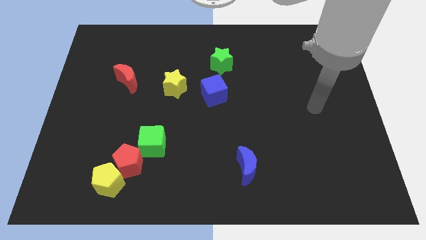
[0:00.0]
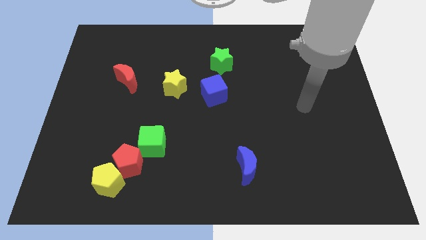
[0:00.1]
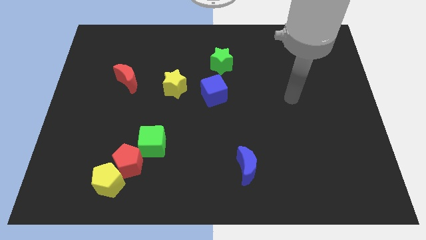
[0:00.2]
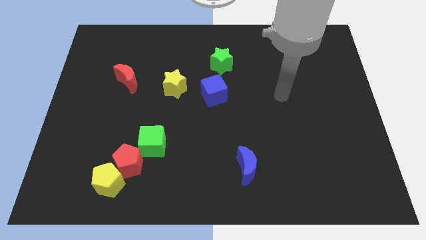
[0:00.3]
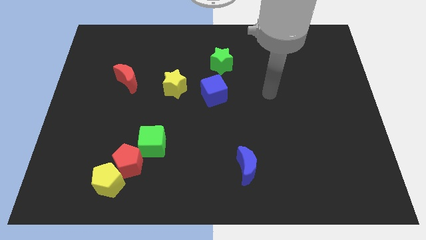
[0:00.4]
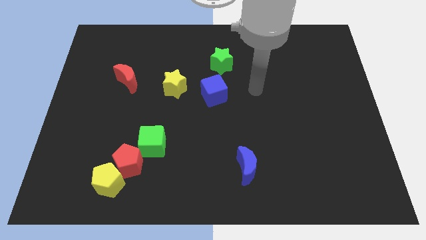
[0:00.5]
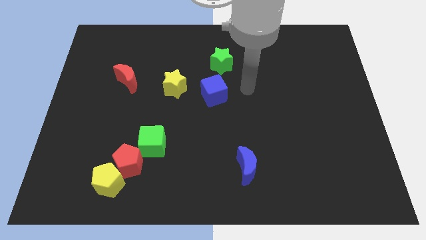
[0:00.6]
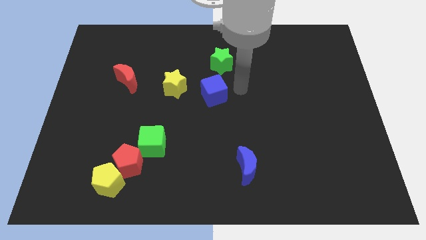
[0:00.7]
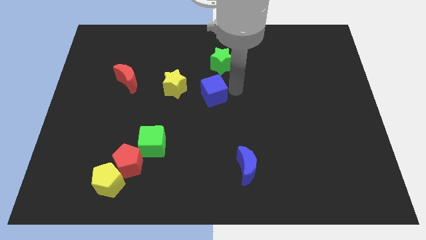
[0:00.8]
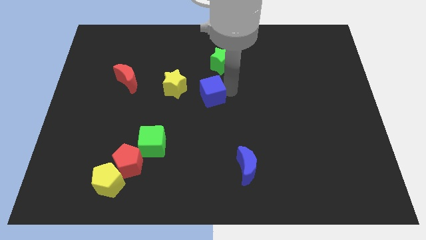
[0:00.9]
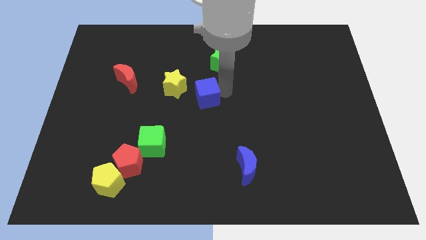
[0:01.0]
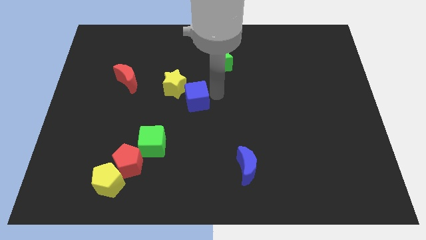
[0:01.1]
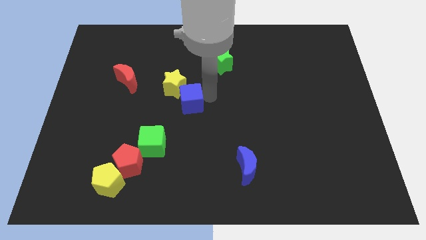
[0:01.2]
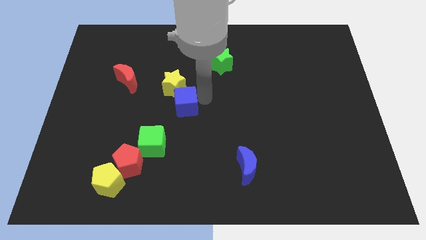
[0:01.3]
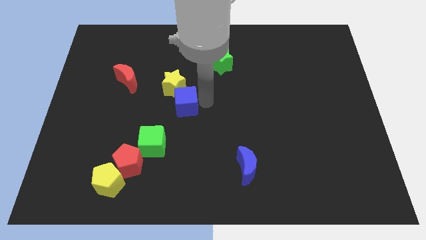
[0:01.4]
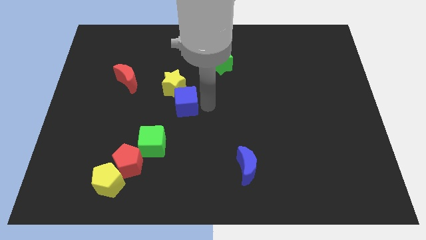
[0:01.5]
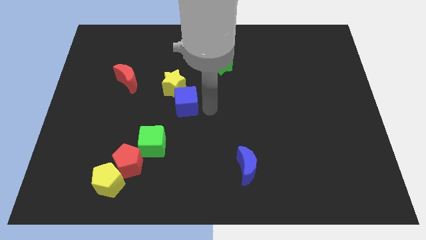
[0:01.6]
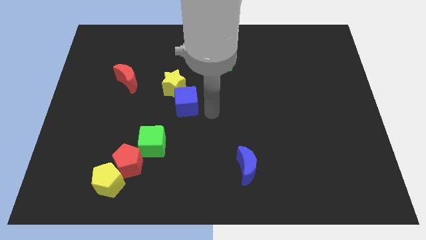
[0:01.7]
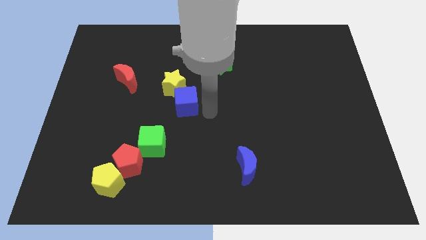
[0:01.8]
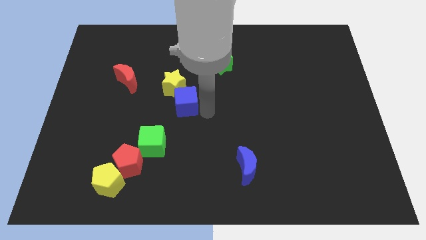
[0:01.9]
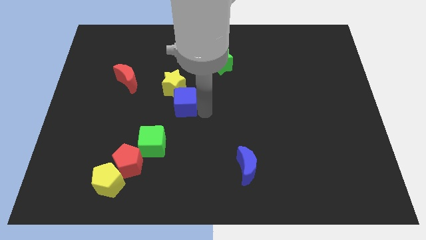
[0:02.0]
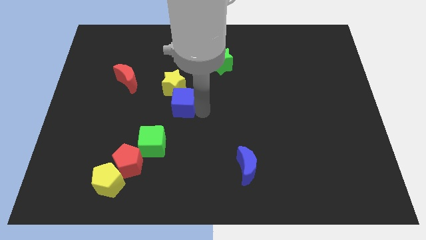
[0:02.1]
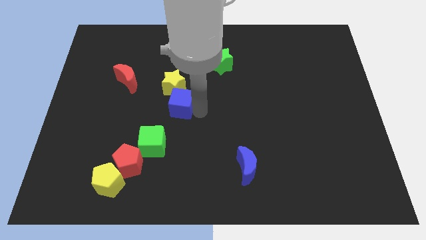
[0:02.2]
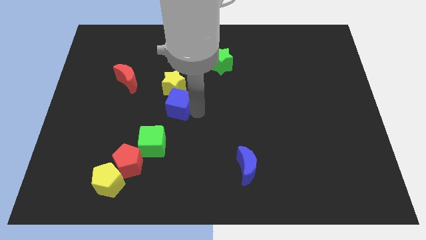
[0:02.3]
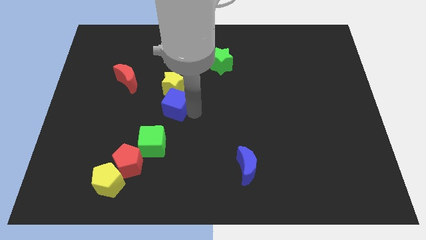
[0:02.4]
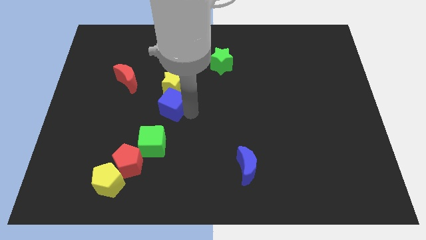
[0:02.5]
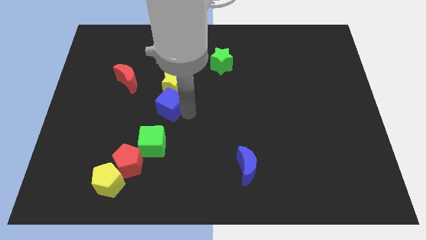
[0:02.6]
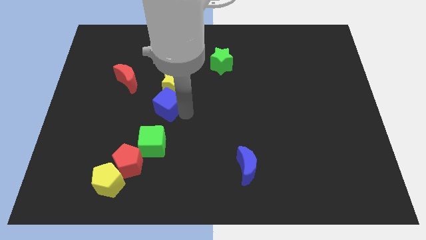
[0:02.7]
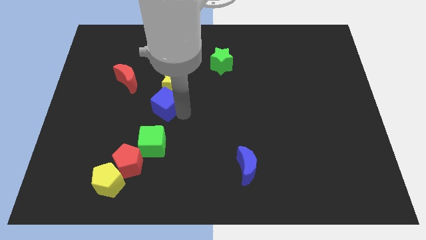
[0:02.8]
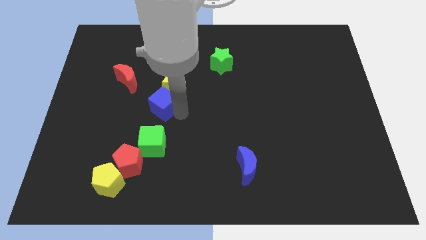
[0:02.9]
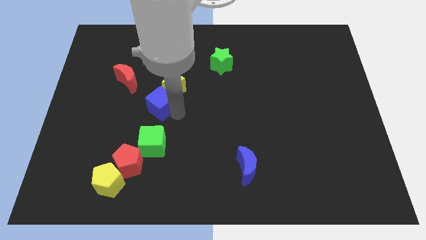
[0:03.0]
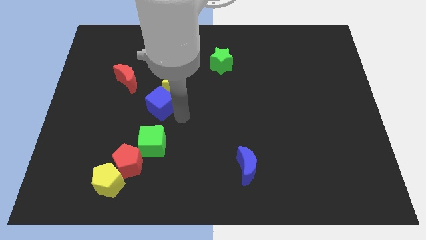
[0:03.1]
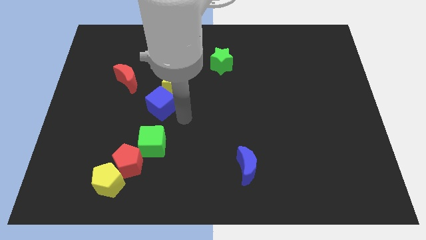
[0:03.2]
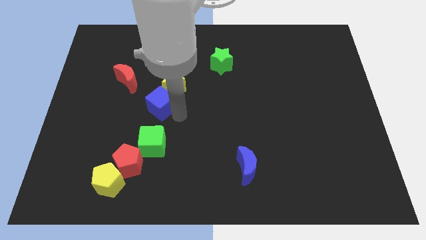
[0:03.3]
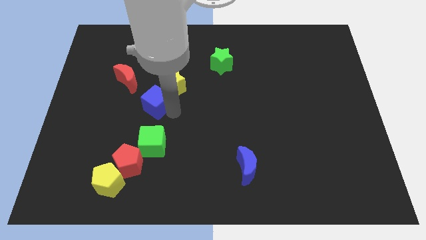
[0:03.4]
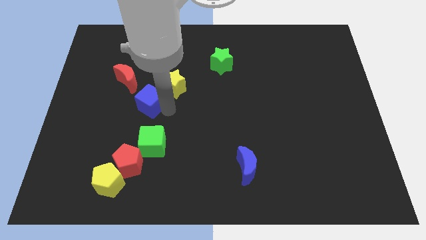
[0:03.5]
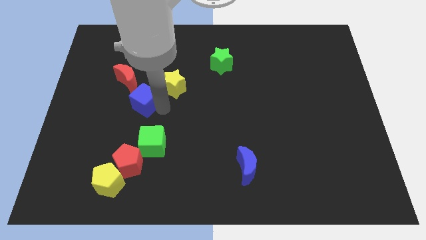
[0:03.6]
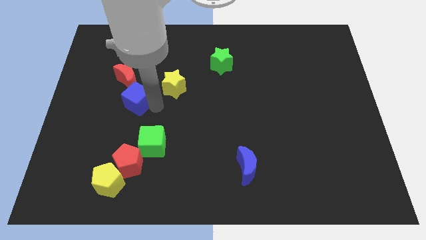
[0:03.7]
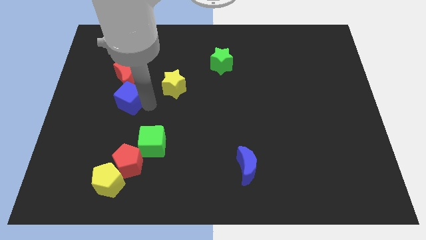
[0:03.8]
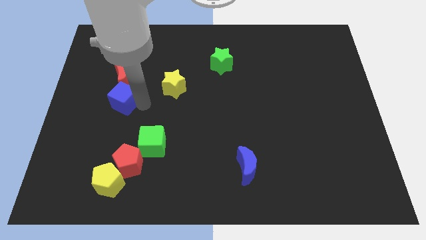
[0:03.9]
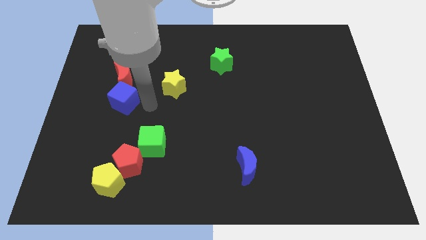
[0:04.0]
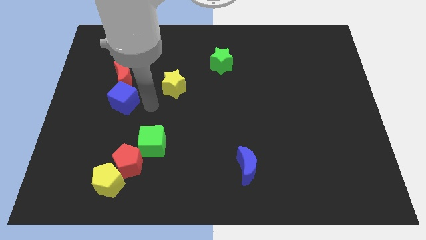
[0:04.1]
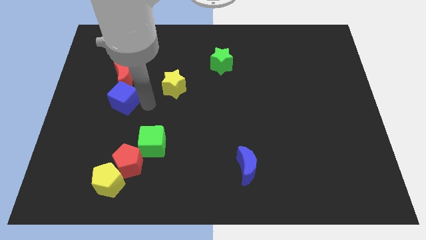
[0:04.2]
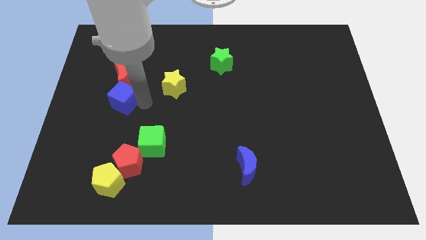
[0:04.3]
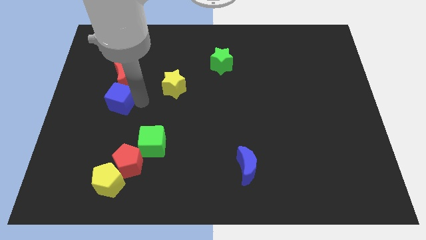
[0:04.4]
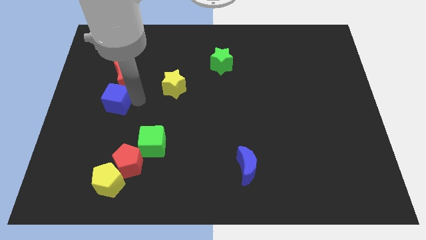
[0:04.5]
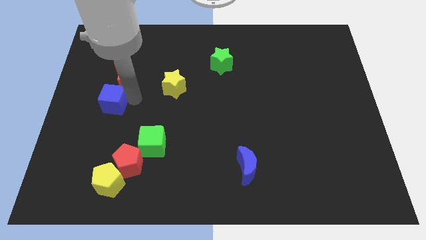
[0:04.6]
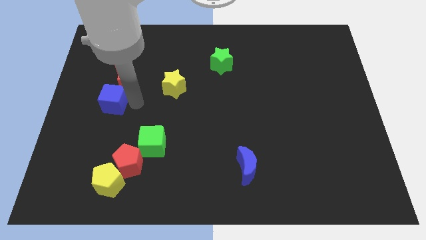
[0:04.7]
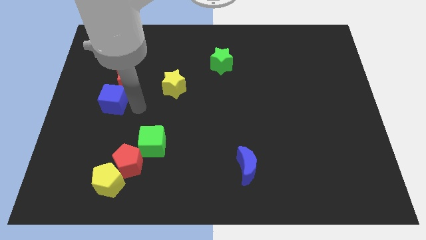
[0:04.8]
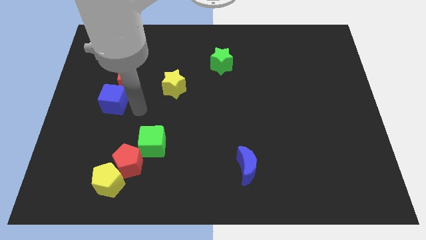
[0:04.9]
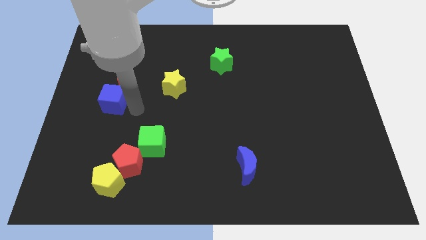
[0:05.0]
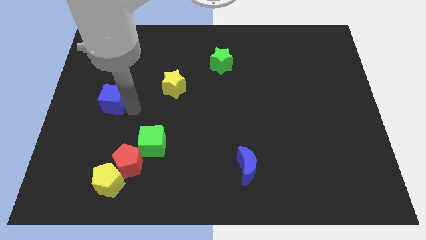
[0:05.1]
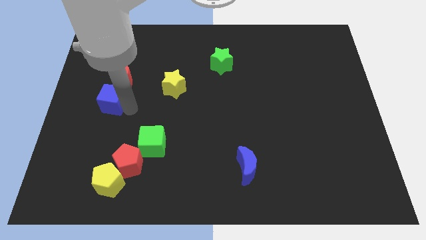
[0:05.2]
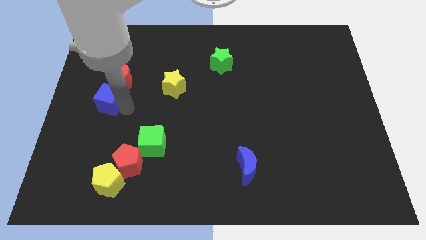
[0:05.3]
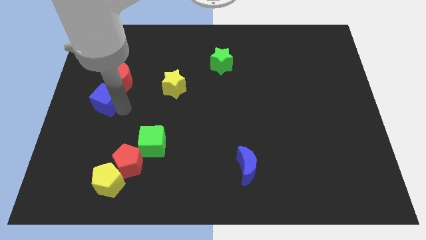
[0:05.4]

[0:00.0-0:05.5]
push the blue cube to the left side of the board
